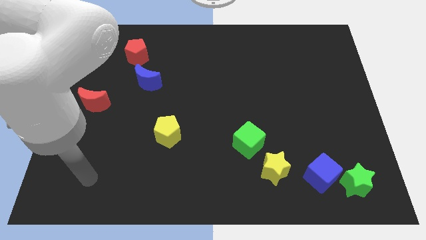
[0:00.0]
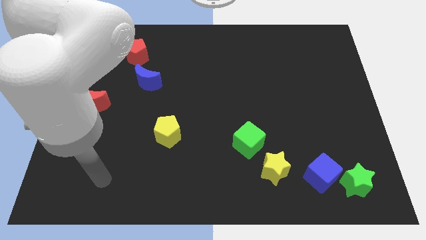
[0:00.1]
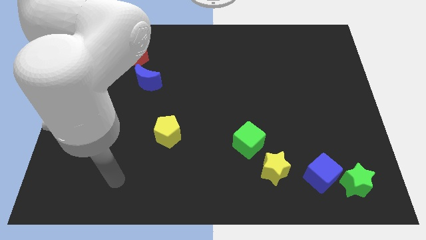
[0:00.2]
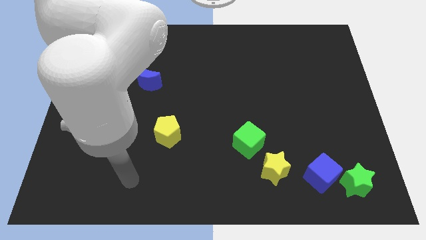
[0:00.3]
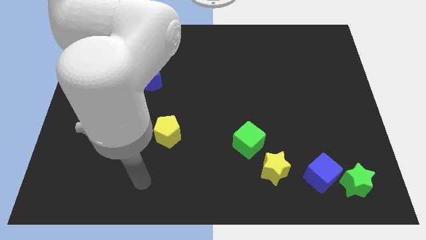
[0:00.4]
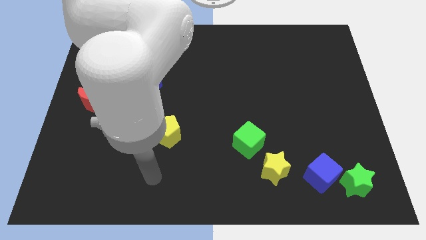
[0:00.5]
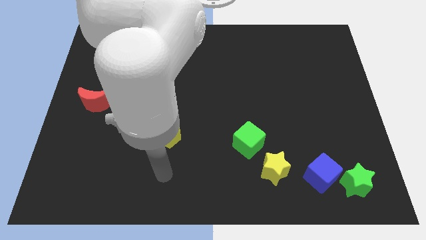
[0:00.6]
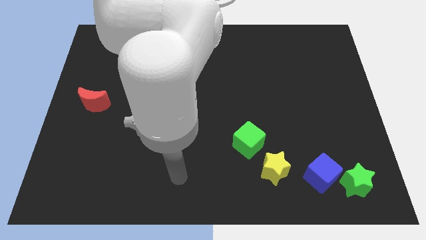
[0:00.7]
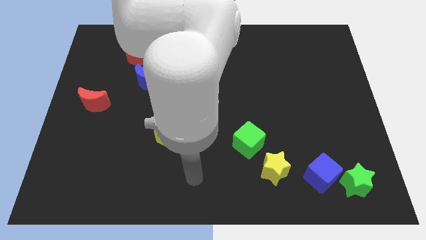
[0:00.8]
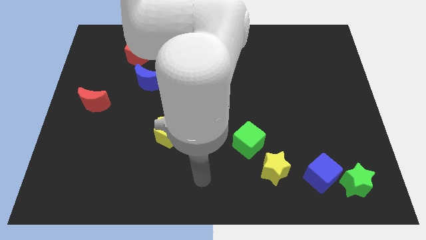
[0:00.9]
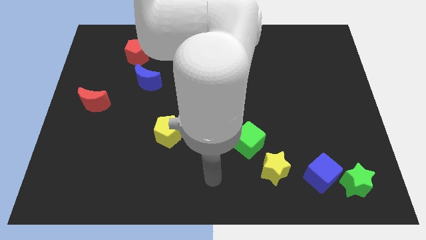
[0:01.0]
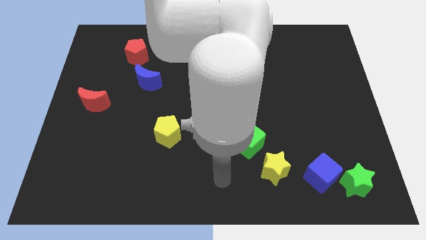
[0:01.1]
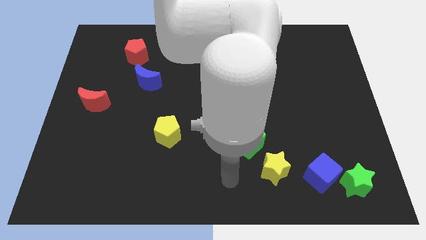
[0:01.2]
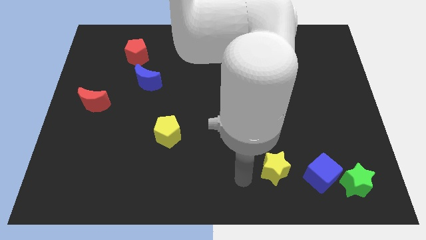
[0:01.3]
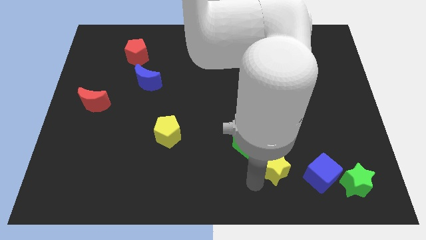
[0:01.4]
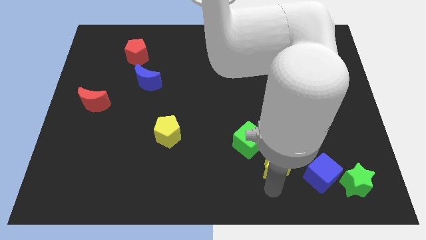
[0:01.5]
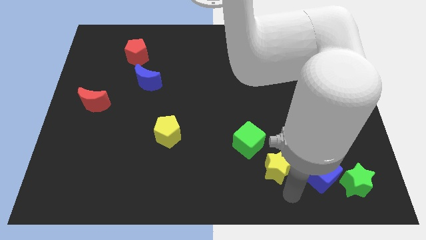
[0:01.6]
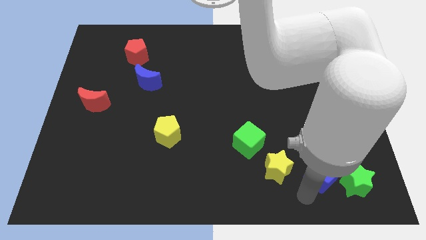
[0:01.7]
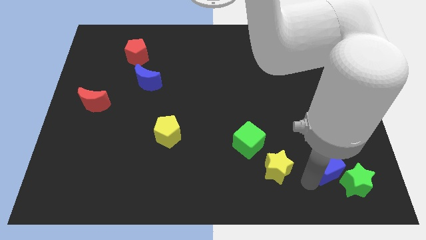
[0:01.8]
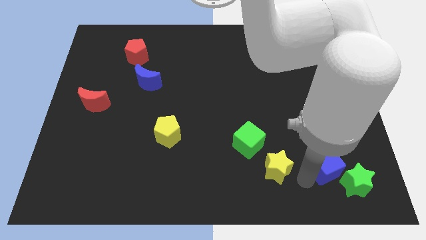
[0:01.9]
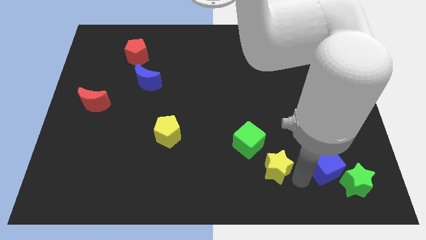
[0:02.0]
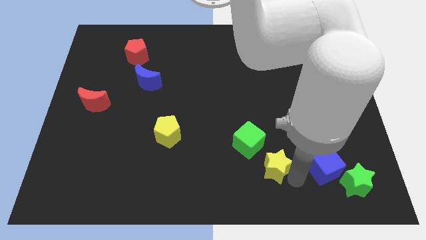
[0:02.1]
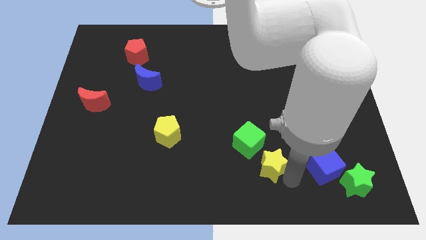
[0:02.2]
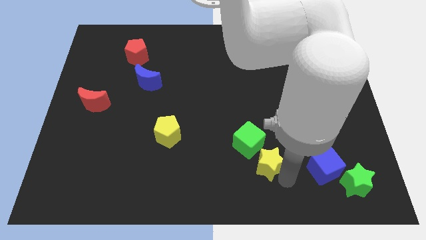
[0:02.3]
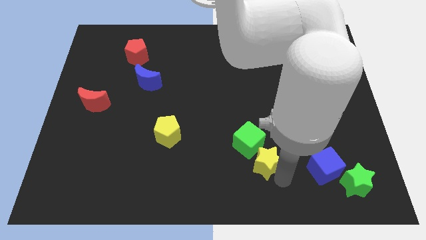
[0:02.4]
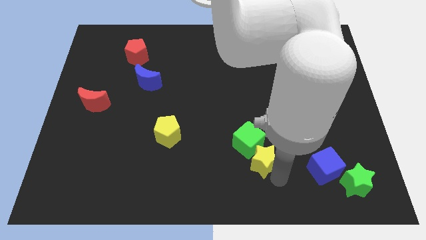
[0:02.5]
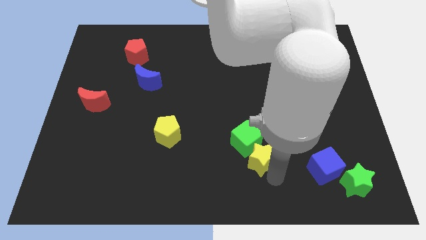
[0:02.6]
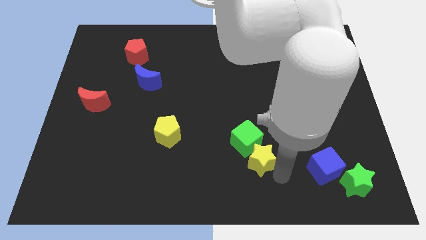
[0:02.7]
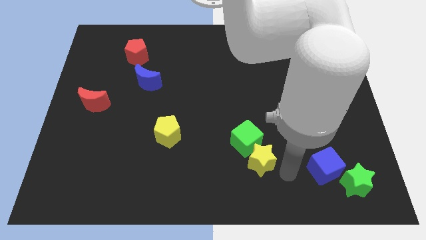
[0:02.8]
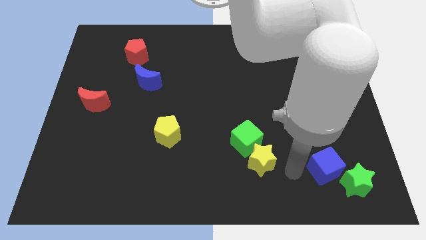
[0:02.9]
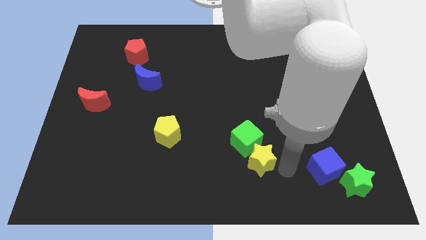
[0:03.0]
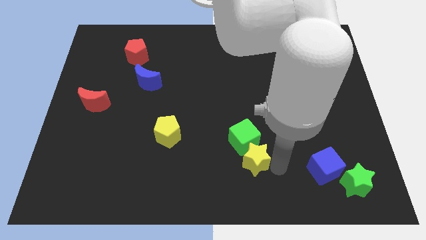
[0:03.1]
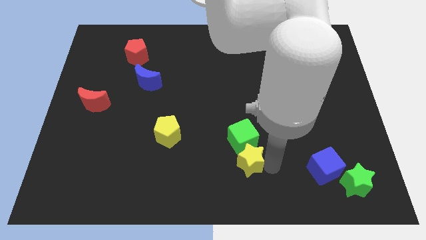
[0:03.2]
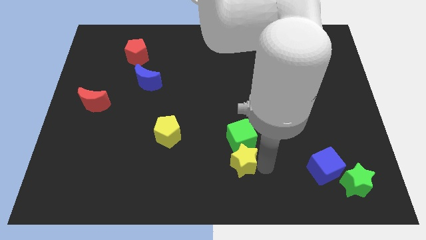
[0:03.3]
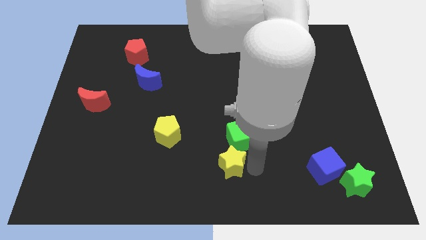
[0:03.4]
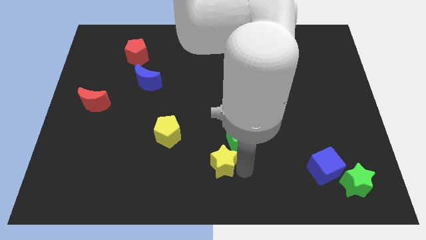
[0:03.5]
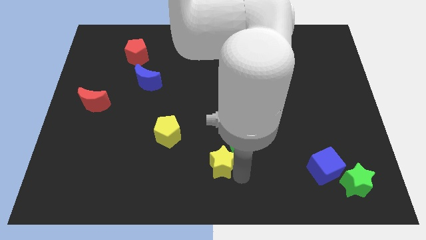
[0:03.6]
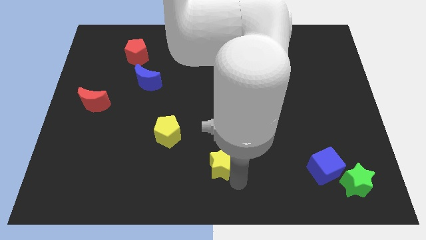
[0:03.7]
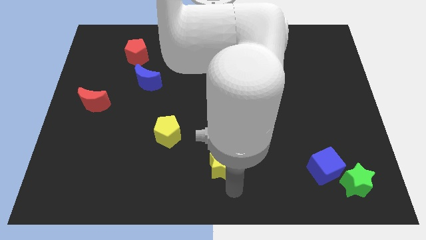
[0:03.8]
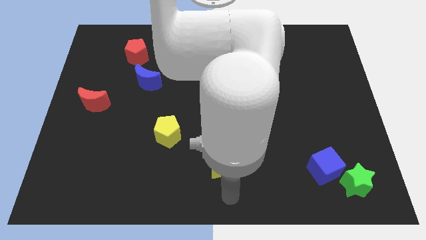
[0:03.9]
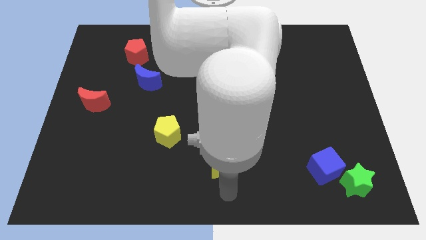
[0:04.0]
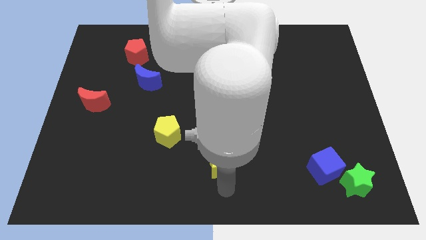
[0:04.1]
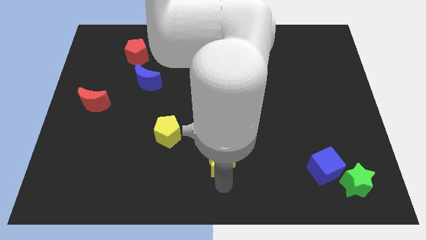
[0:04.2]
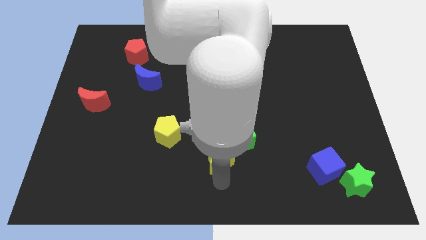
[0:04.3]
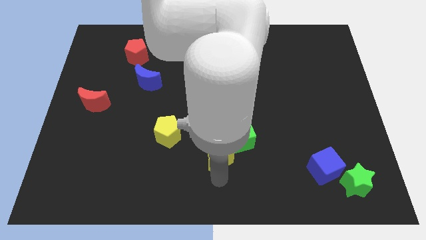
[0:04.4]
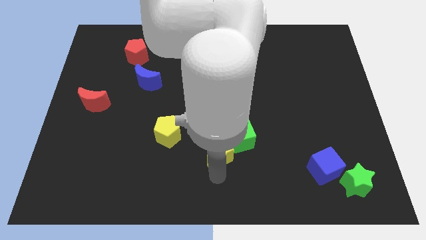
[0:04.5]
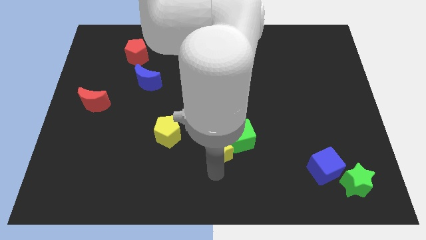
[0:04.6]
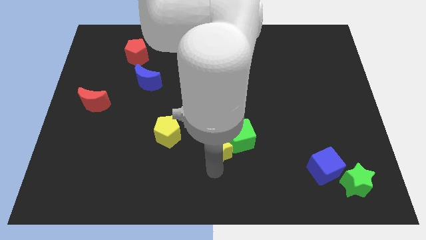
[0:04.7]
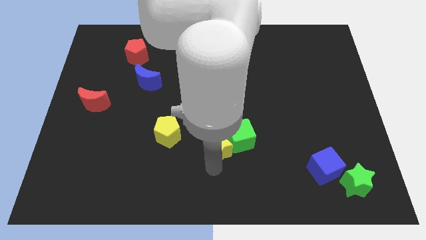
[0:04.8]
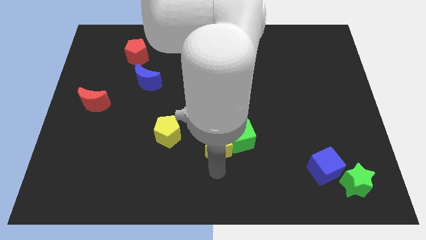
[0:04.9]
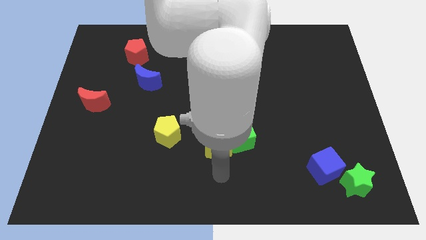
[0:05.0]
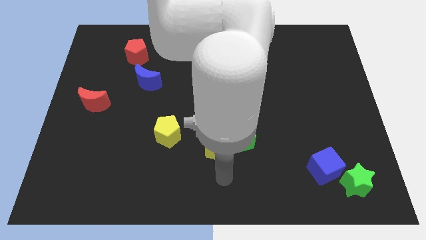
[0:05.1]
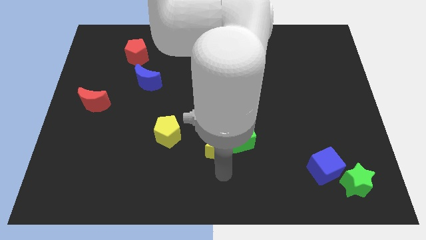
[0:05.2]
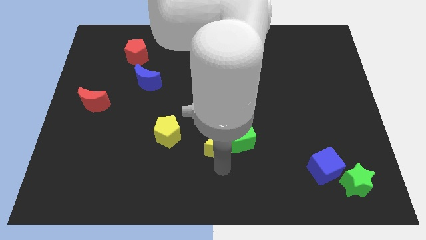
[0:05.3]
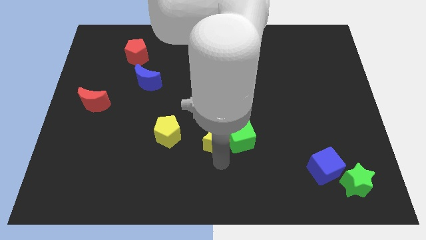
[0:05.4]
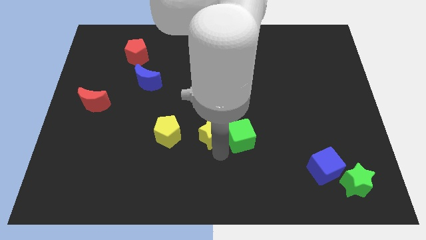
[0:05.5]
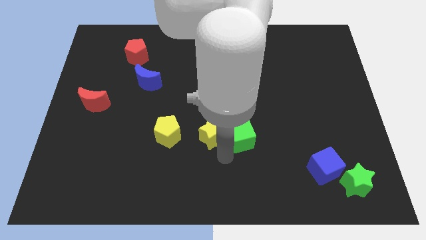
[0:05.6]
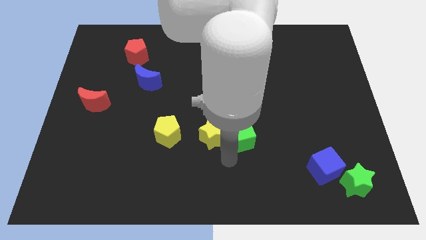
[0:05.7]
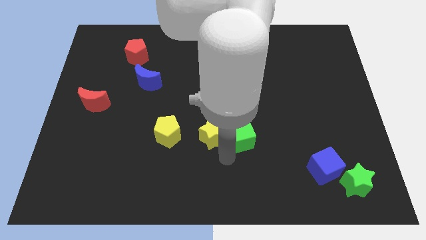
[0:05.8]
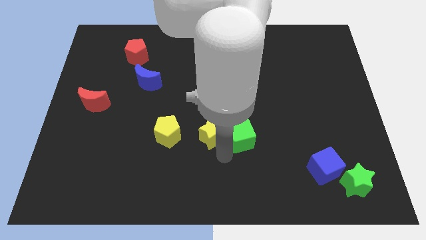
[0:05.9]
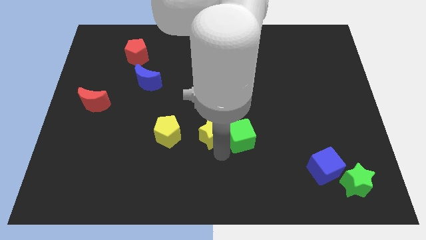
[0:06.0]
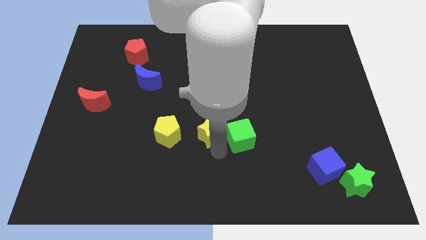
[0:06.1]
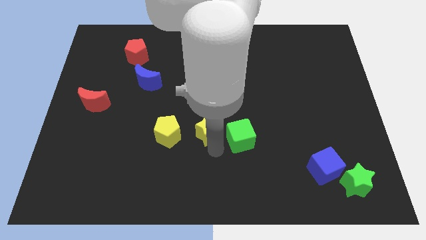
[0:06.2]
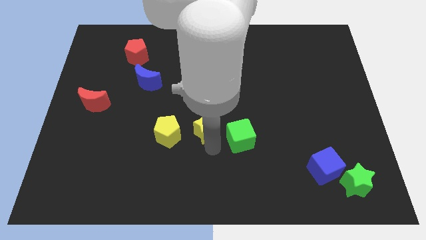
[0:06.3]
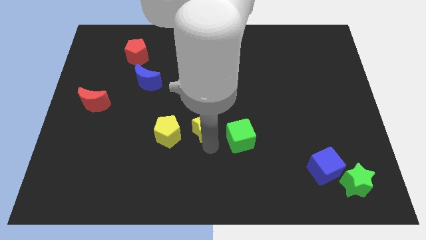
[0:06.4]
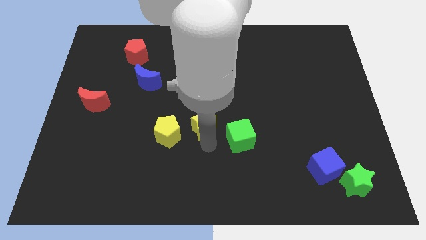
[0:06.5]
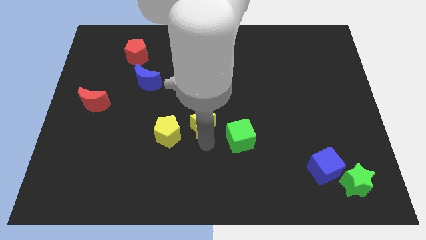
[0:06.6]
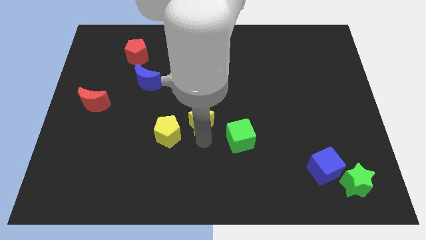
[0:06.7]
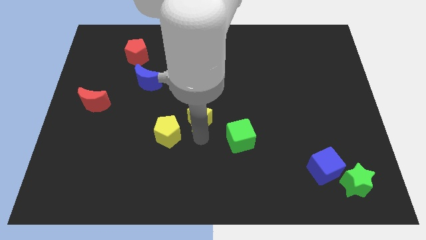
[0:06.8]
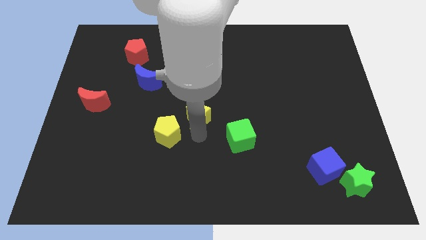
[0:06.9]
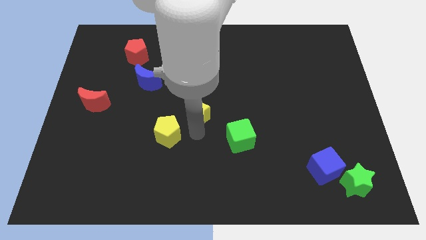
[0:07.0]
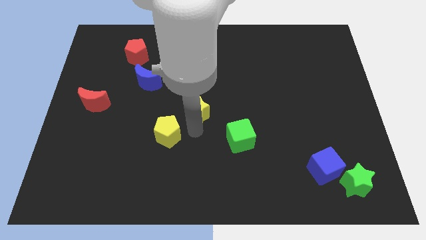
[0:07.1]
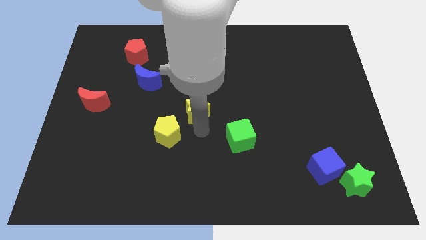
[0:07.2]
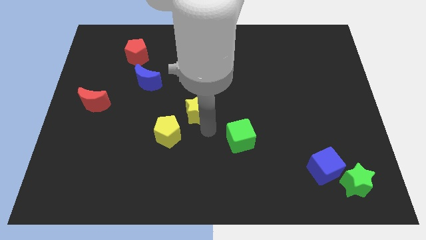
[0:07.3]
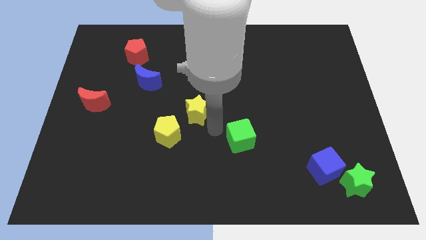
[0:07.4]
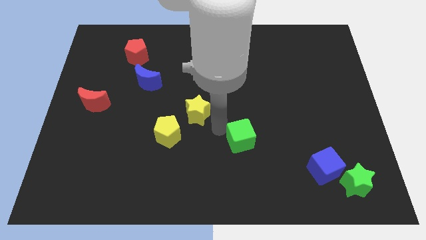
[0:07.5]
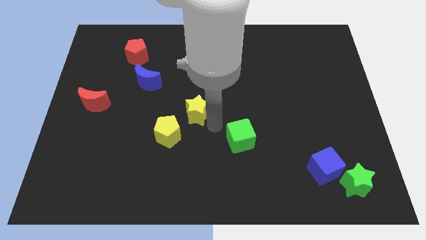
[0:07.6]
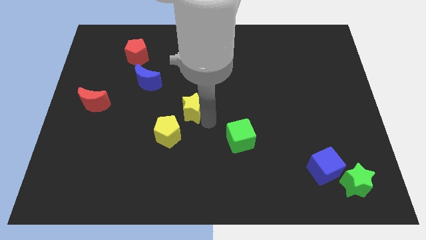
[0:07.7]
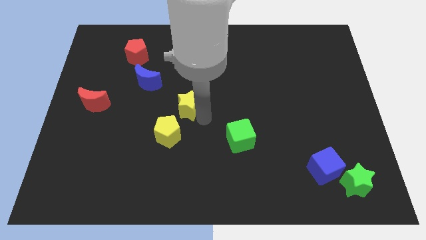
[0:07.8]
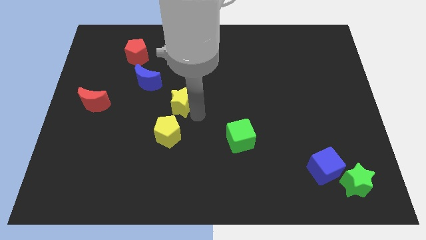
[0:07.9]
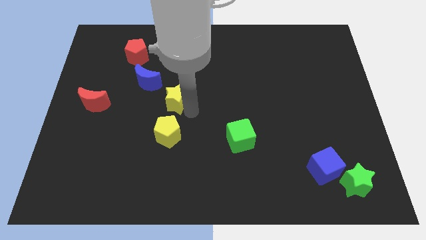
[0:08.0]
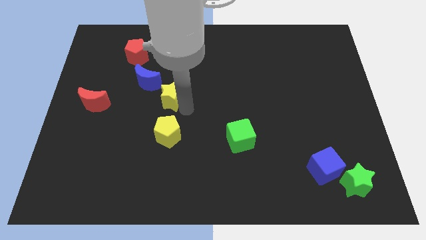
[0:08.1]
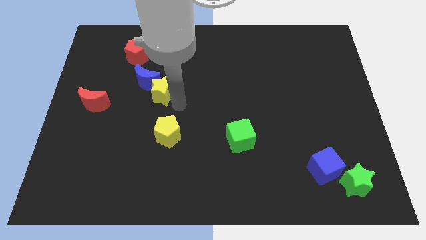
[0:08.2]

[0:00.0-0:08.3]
push the yellow star next to the blue moon
